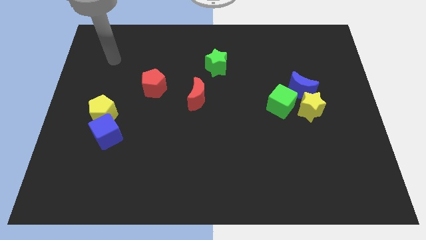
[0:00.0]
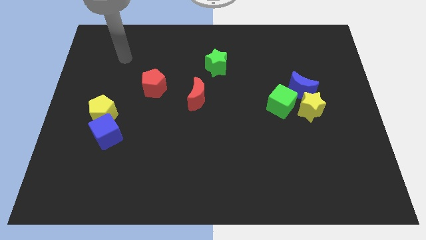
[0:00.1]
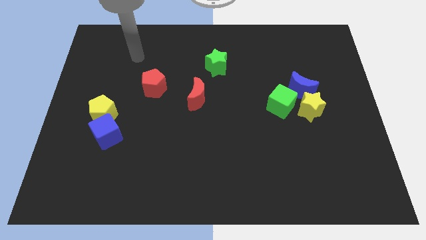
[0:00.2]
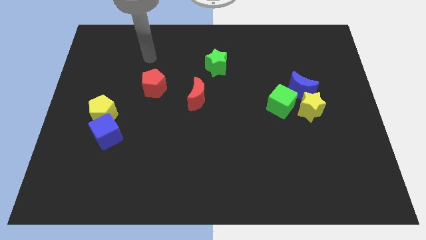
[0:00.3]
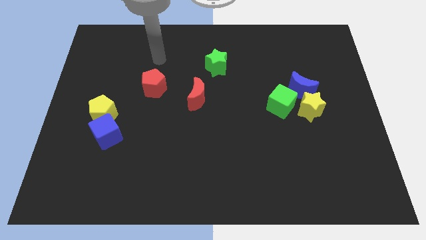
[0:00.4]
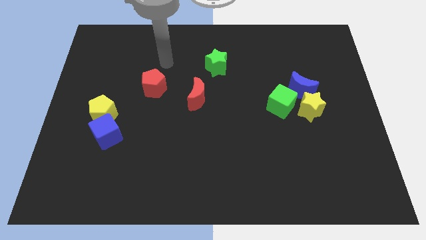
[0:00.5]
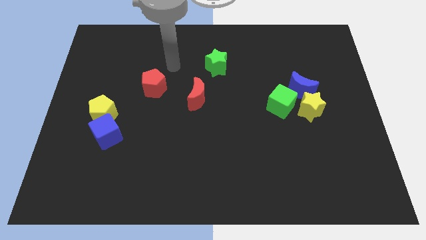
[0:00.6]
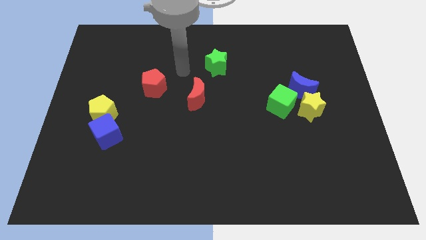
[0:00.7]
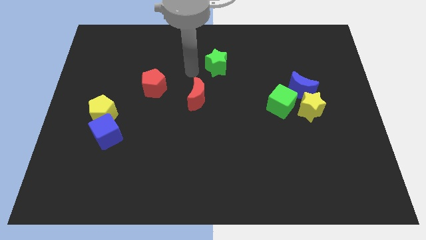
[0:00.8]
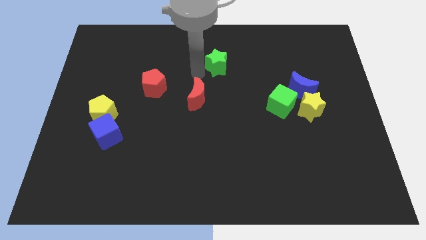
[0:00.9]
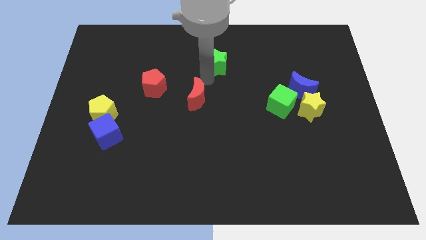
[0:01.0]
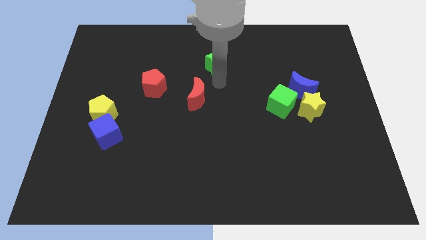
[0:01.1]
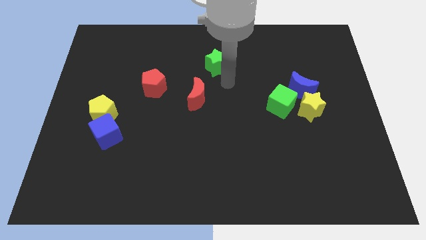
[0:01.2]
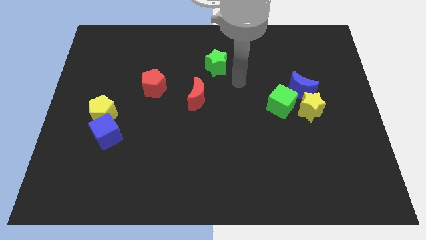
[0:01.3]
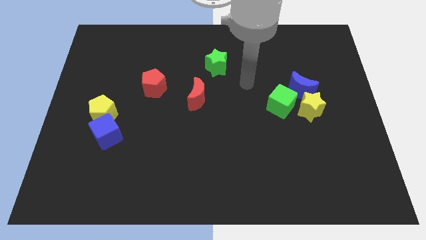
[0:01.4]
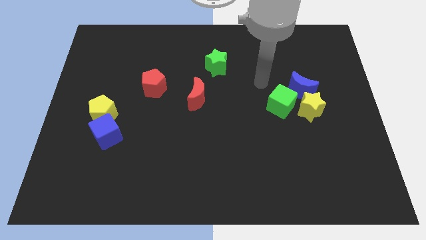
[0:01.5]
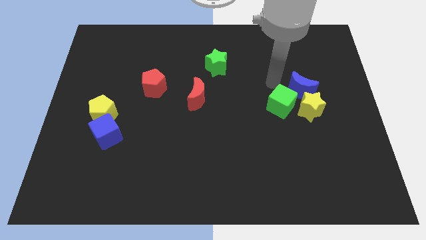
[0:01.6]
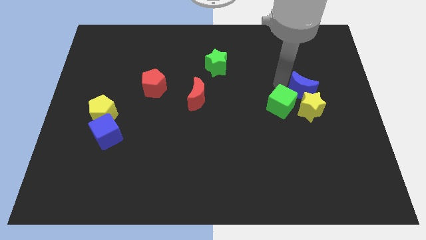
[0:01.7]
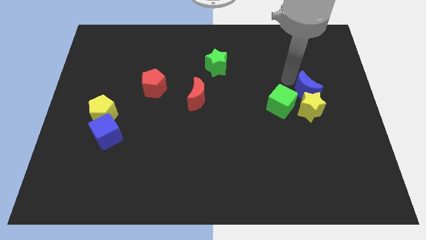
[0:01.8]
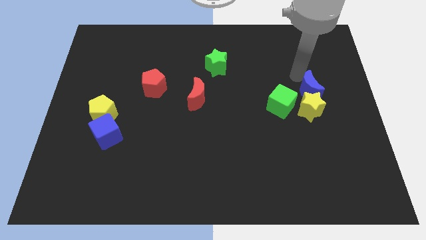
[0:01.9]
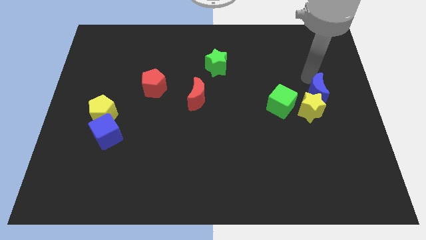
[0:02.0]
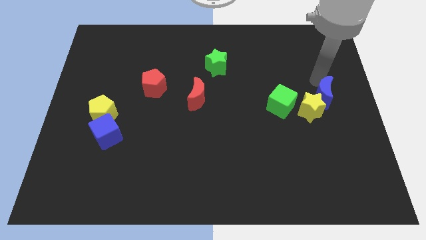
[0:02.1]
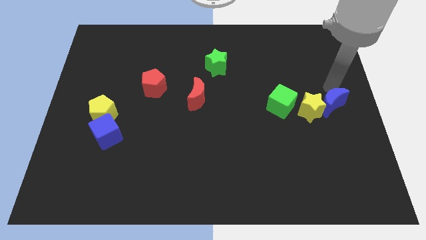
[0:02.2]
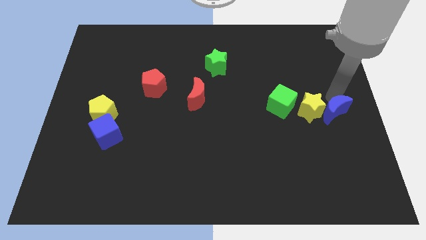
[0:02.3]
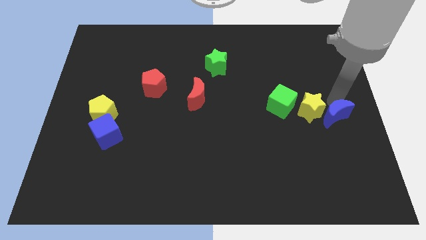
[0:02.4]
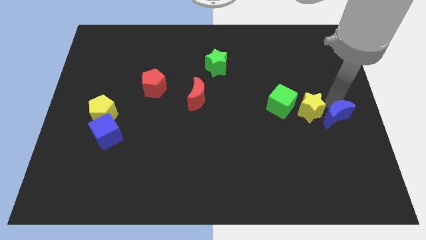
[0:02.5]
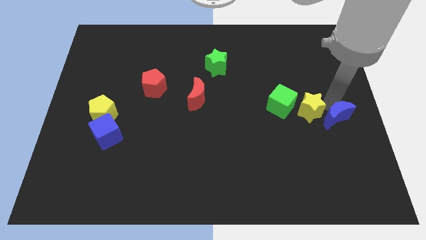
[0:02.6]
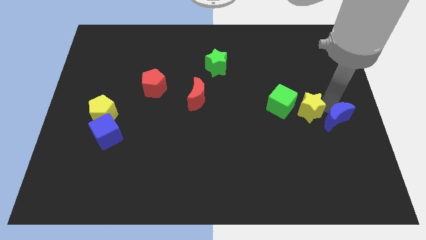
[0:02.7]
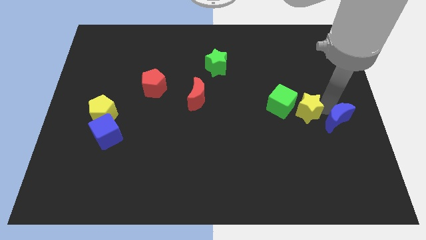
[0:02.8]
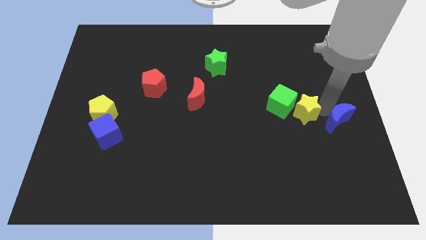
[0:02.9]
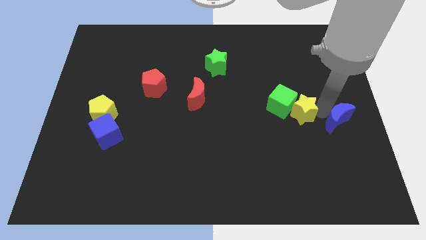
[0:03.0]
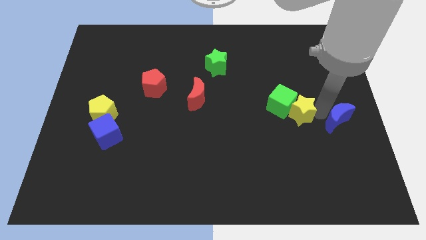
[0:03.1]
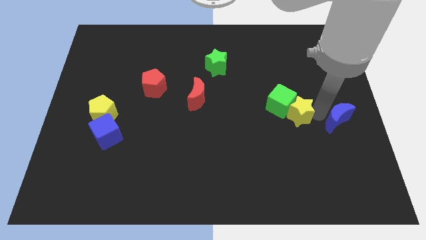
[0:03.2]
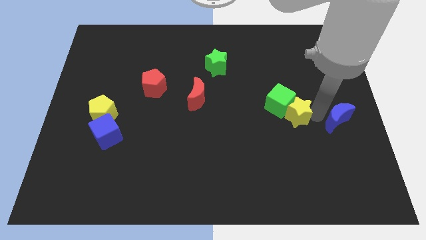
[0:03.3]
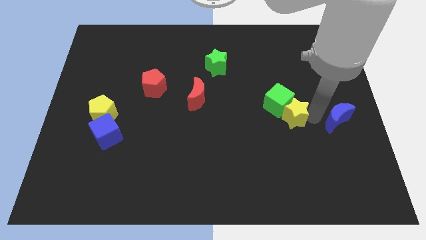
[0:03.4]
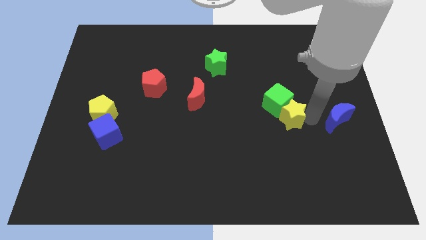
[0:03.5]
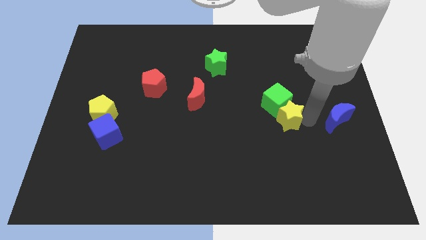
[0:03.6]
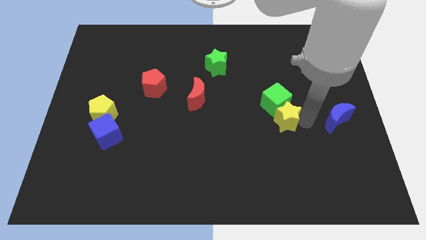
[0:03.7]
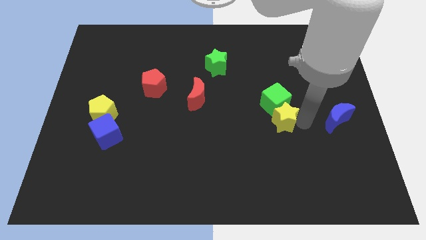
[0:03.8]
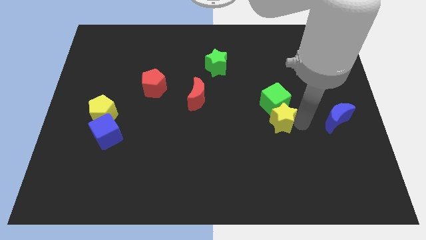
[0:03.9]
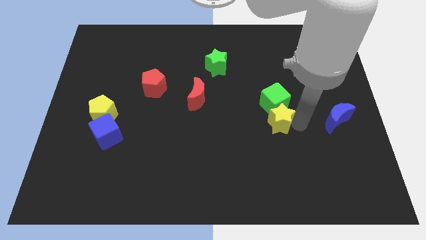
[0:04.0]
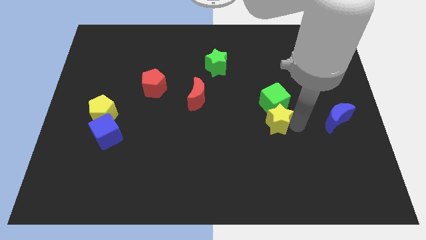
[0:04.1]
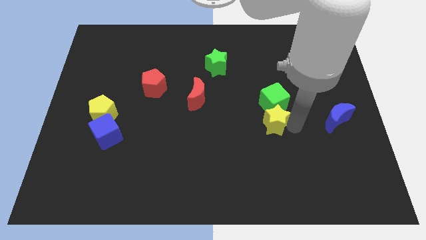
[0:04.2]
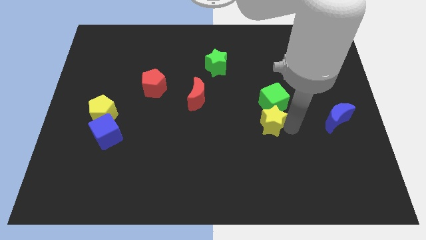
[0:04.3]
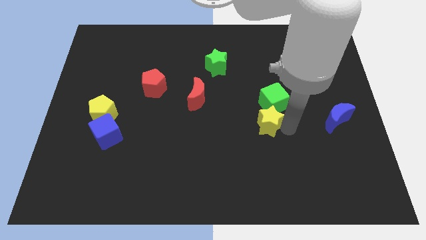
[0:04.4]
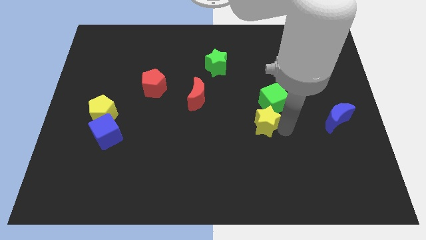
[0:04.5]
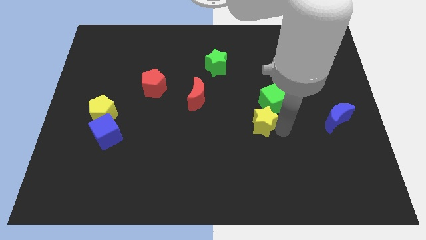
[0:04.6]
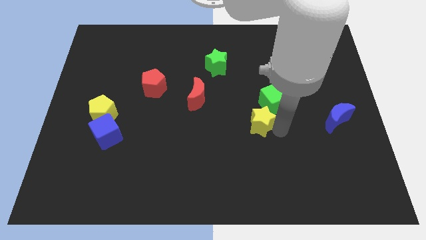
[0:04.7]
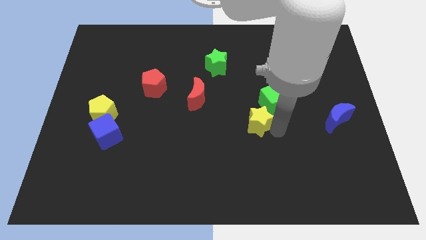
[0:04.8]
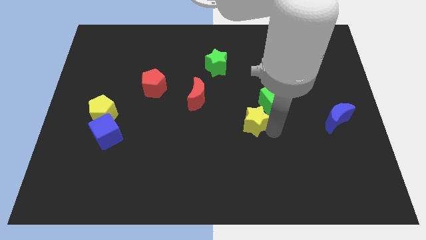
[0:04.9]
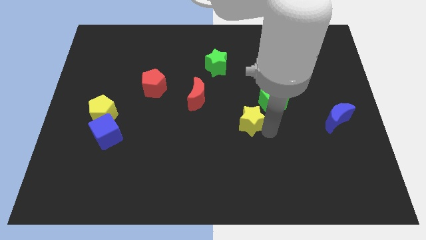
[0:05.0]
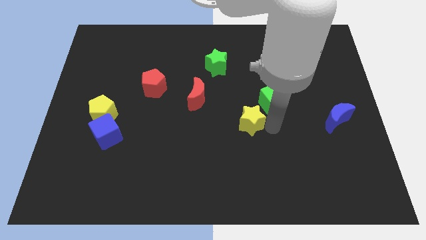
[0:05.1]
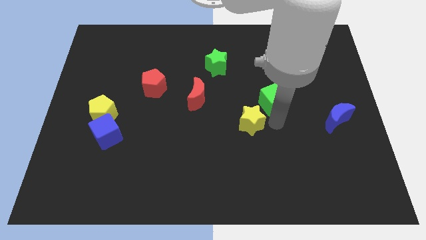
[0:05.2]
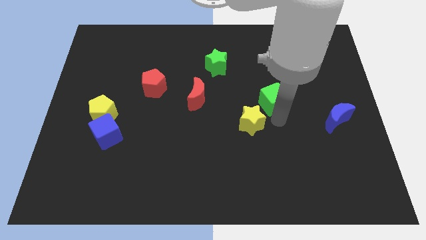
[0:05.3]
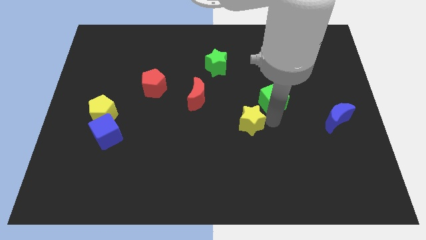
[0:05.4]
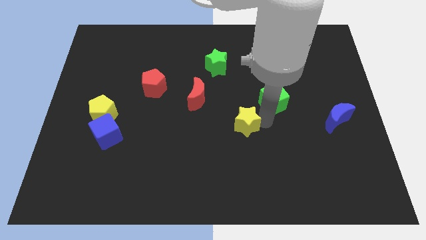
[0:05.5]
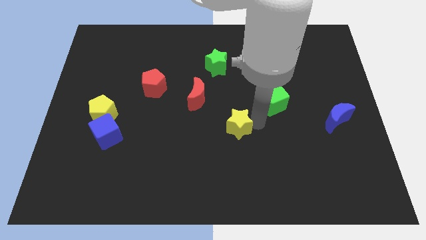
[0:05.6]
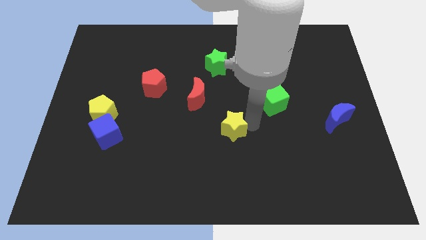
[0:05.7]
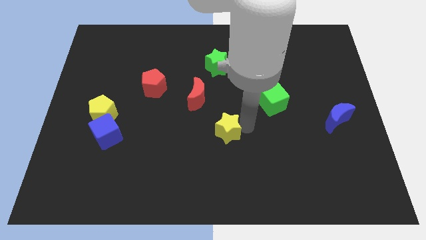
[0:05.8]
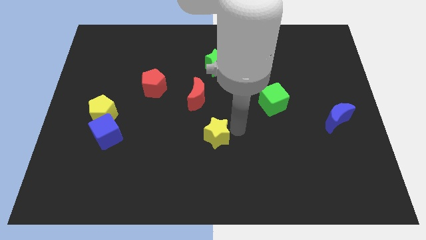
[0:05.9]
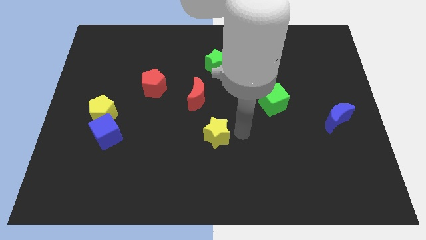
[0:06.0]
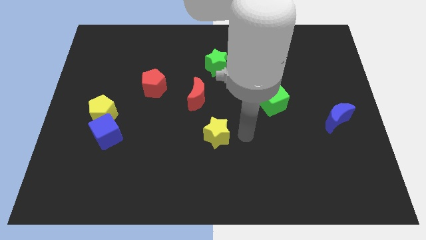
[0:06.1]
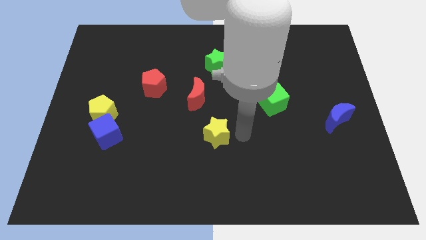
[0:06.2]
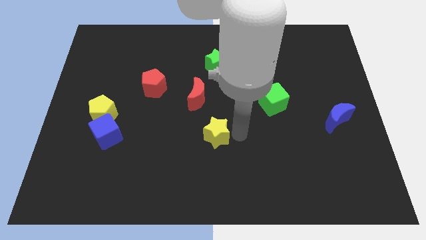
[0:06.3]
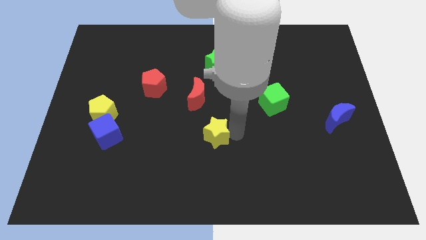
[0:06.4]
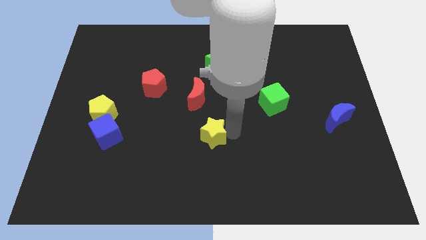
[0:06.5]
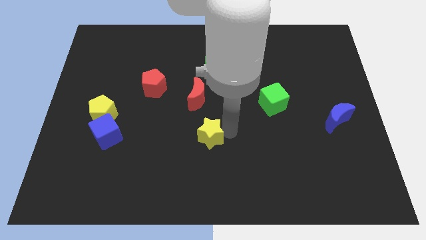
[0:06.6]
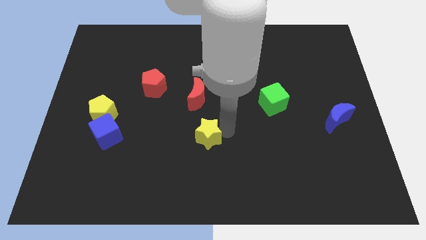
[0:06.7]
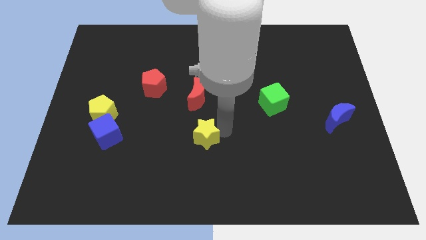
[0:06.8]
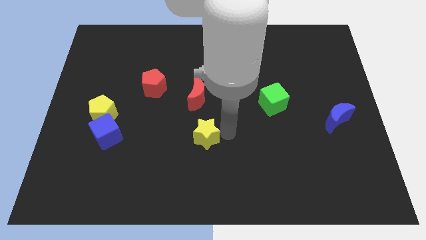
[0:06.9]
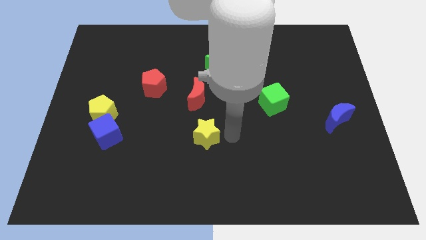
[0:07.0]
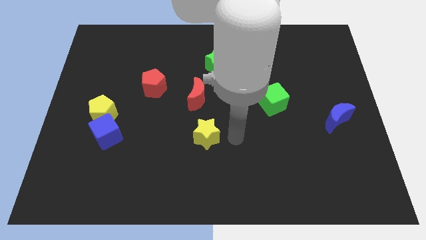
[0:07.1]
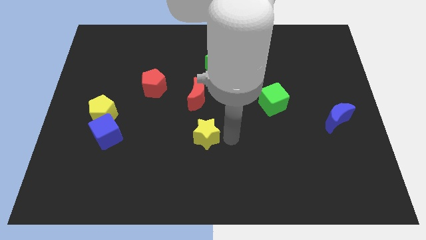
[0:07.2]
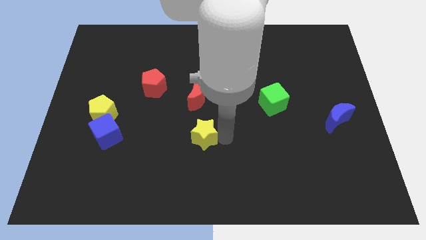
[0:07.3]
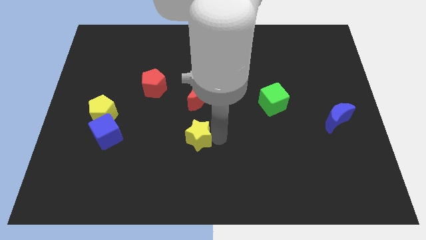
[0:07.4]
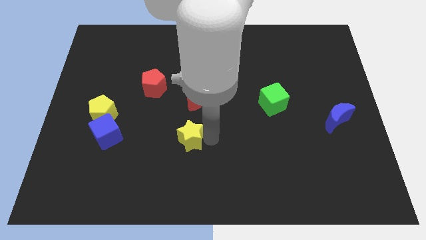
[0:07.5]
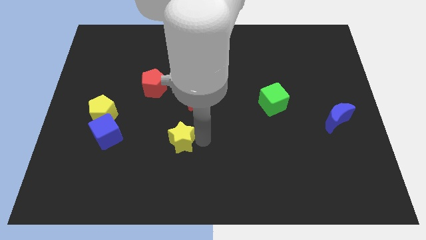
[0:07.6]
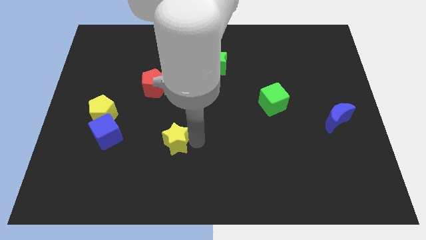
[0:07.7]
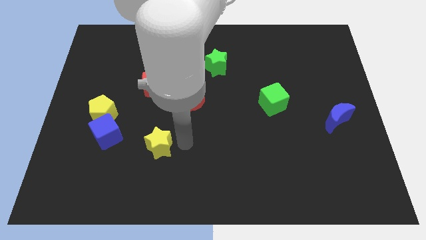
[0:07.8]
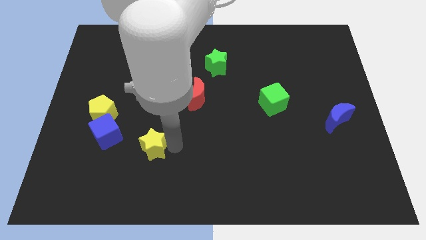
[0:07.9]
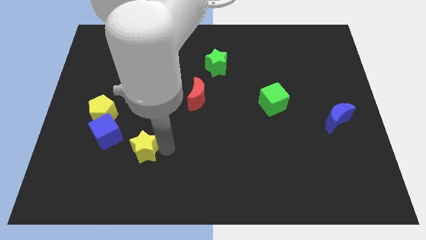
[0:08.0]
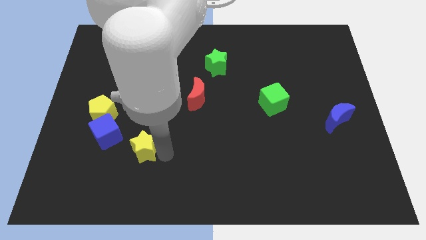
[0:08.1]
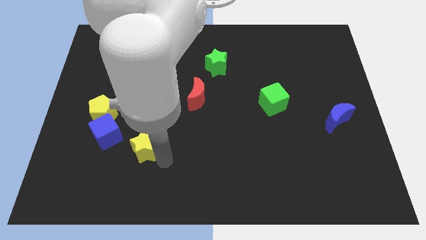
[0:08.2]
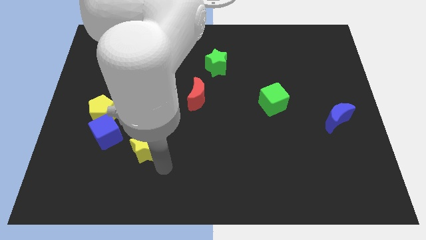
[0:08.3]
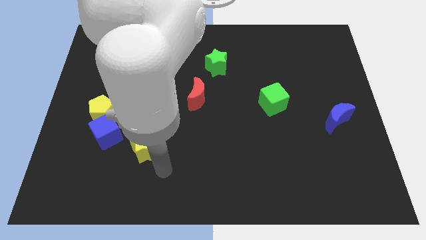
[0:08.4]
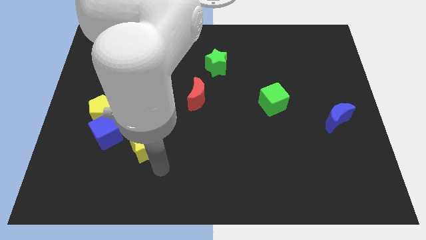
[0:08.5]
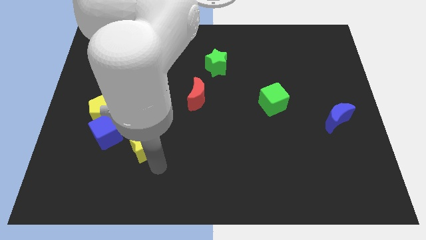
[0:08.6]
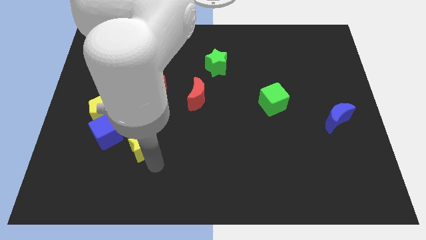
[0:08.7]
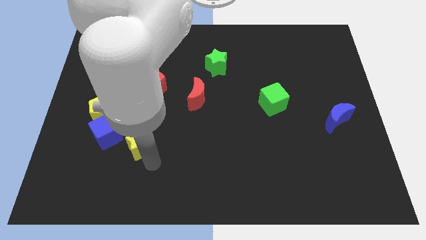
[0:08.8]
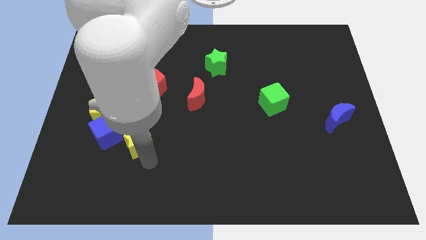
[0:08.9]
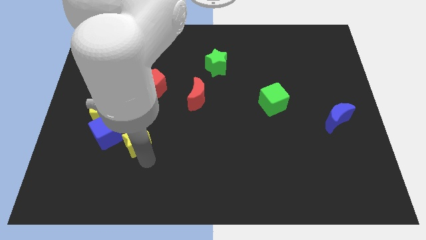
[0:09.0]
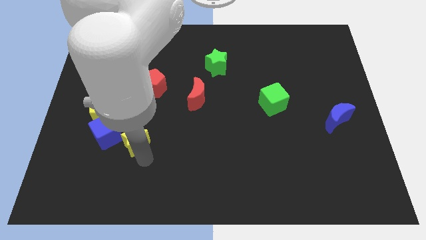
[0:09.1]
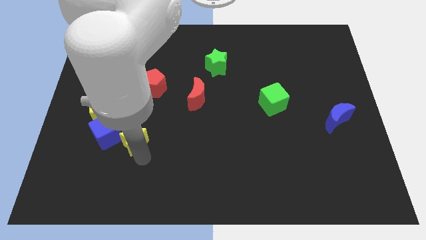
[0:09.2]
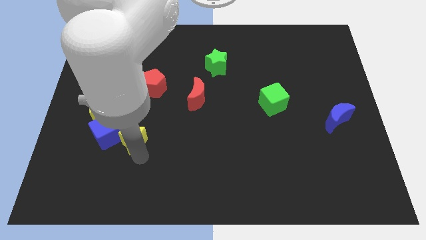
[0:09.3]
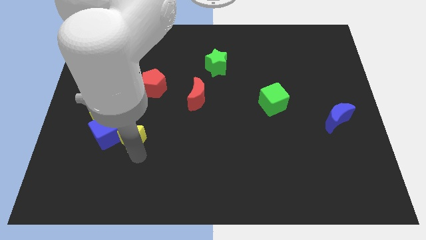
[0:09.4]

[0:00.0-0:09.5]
push the yellow star close to the blue cube
